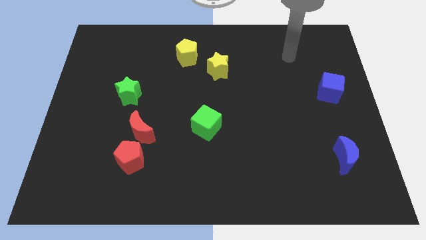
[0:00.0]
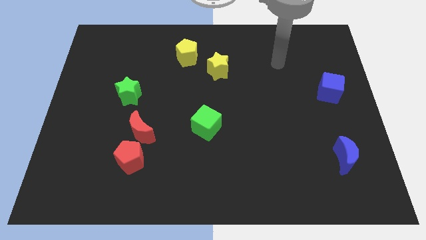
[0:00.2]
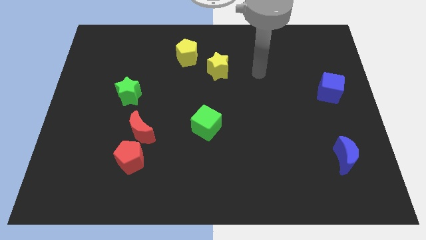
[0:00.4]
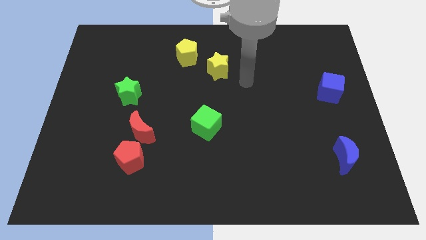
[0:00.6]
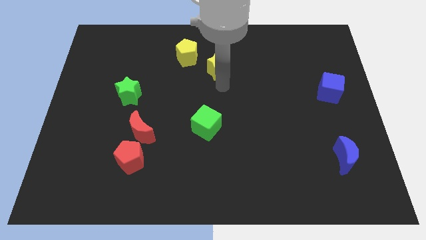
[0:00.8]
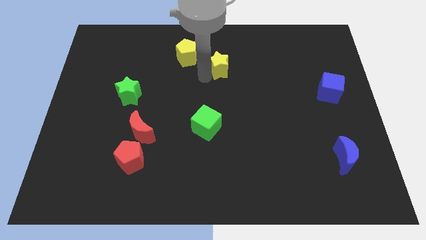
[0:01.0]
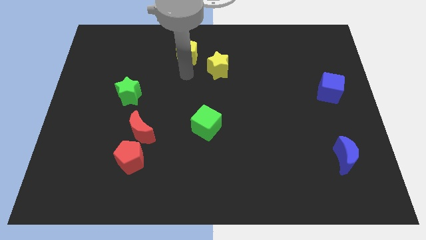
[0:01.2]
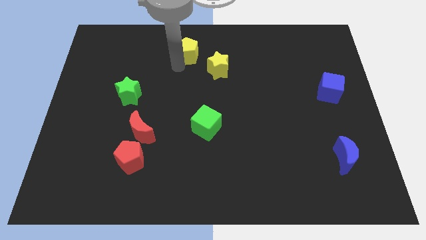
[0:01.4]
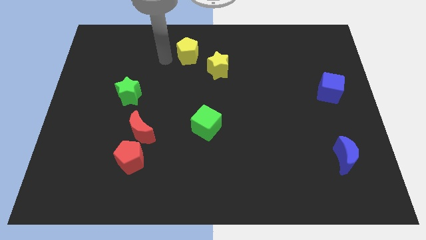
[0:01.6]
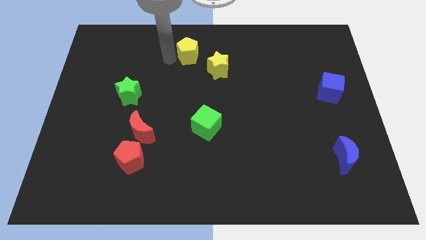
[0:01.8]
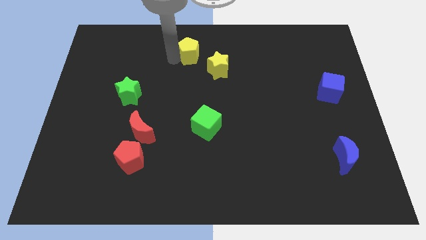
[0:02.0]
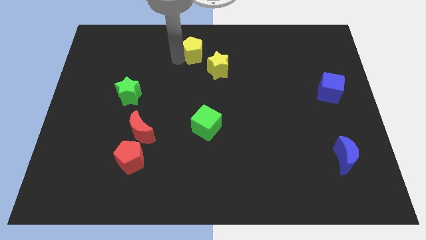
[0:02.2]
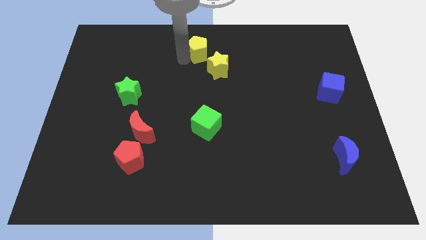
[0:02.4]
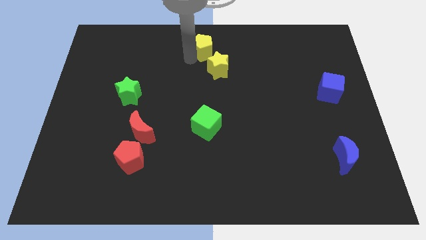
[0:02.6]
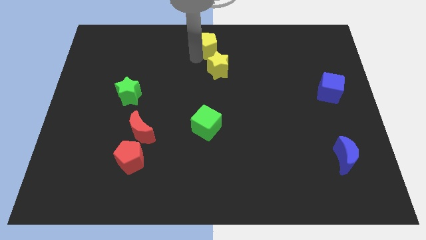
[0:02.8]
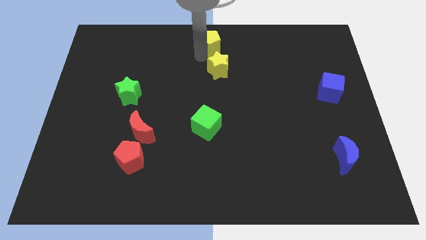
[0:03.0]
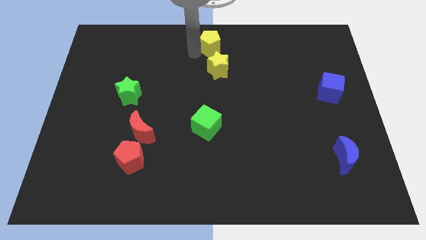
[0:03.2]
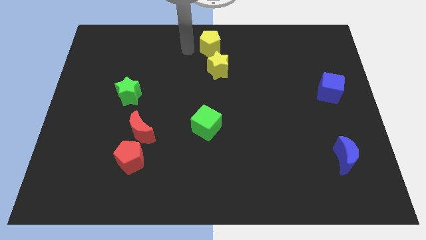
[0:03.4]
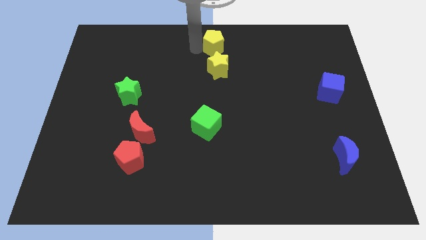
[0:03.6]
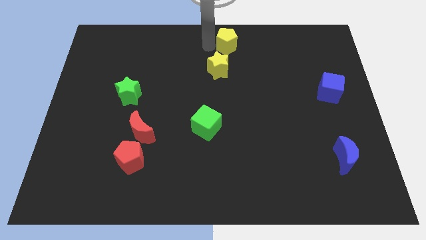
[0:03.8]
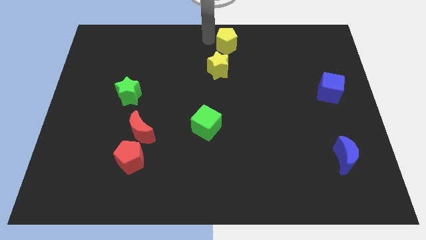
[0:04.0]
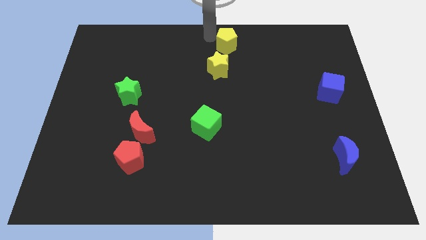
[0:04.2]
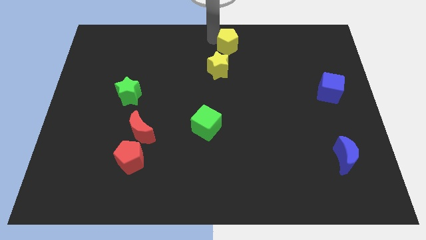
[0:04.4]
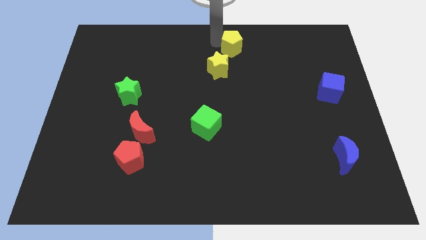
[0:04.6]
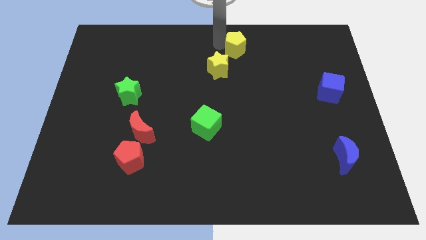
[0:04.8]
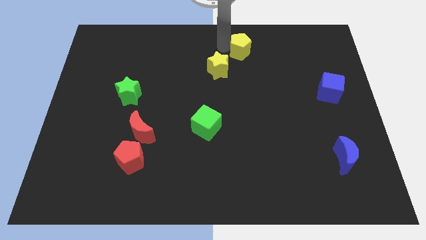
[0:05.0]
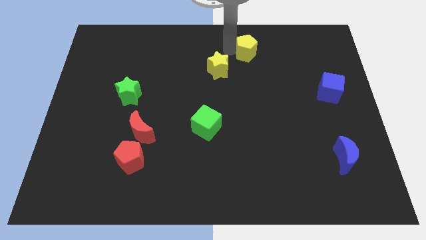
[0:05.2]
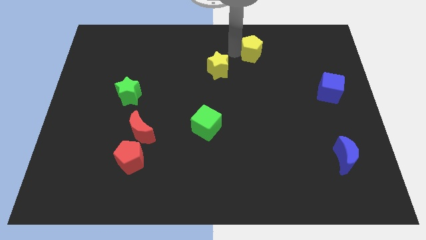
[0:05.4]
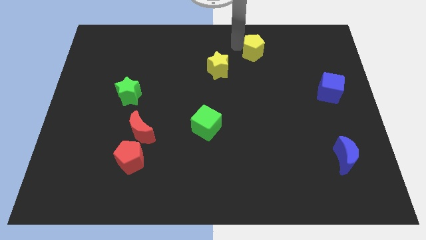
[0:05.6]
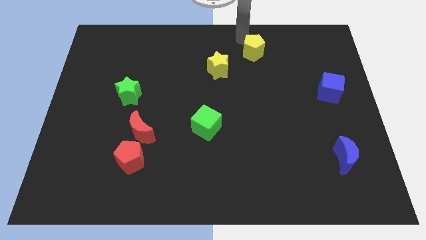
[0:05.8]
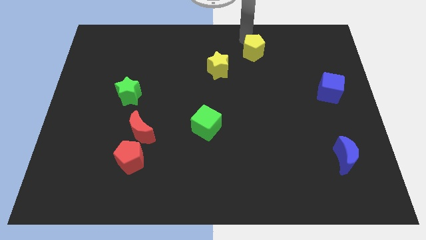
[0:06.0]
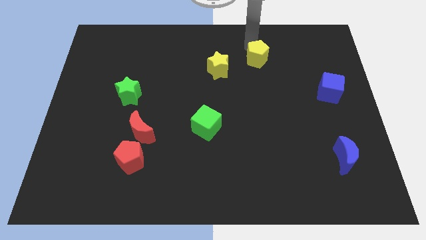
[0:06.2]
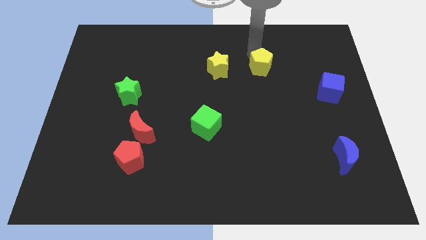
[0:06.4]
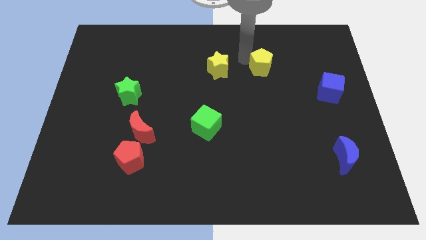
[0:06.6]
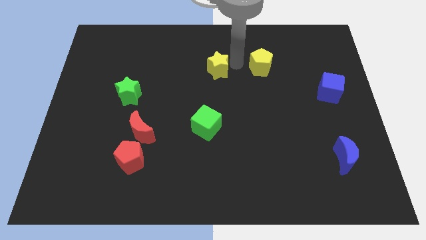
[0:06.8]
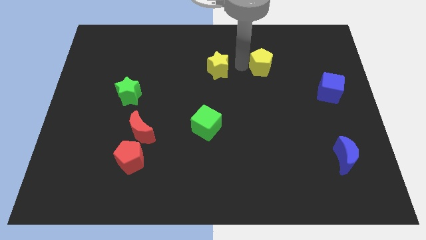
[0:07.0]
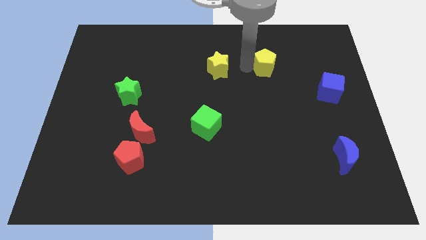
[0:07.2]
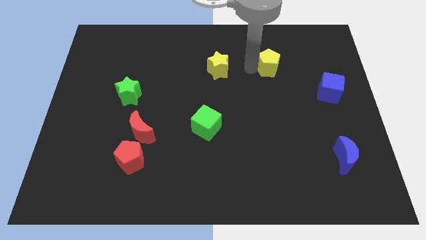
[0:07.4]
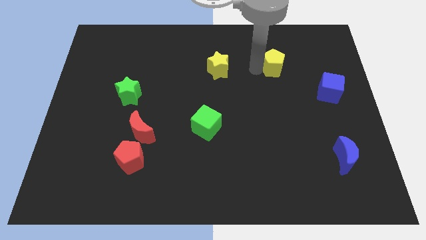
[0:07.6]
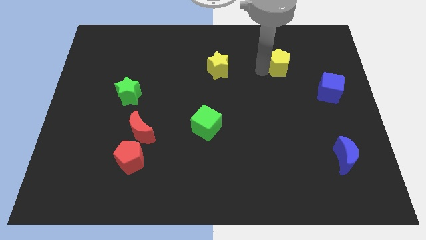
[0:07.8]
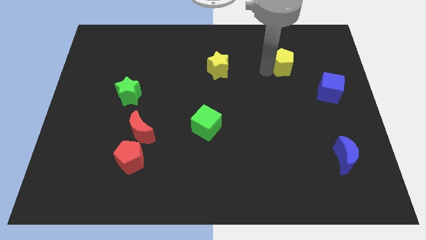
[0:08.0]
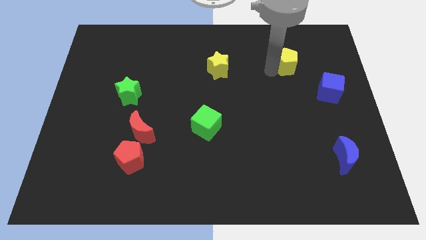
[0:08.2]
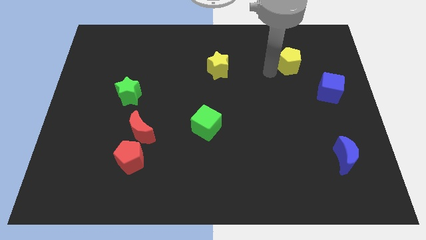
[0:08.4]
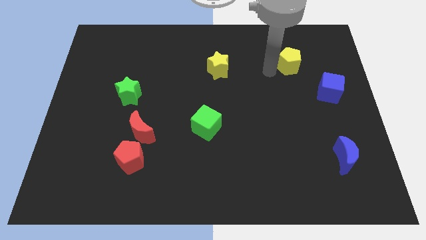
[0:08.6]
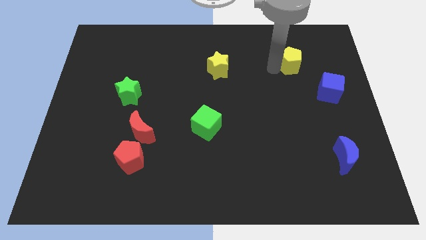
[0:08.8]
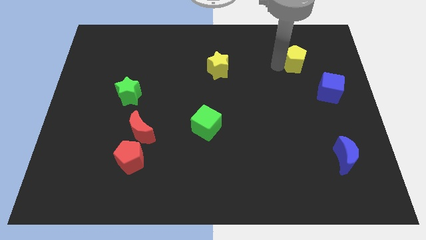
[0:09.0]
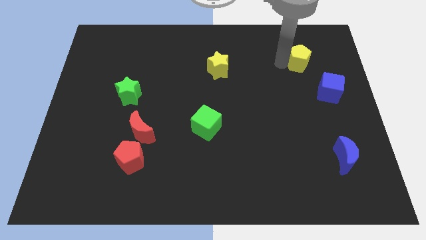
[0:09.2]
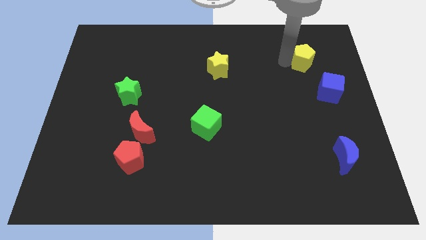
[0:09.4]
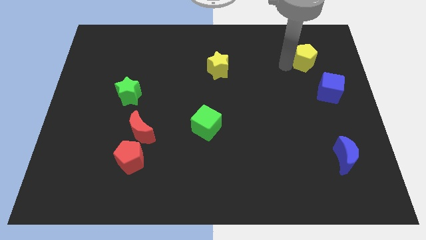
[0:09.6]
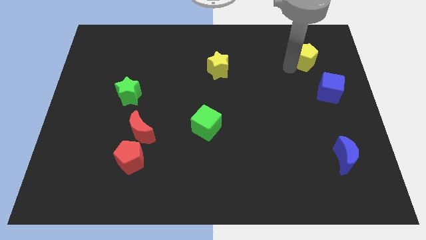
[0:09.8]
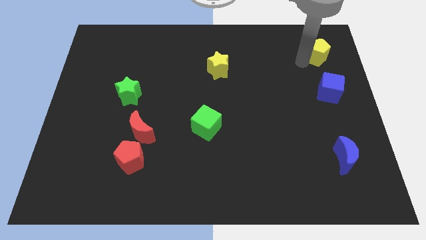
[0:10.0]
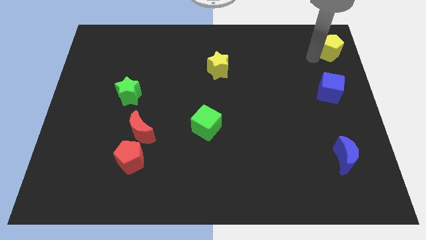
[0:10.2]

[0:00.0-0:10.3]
slide the yellow pentagon to the top right corner

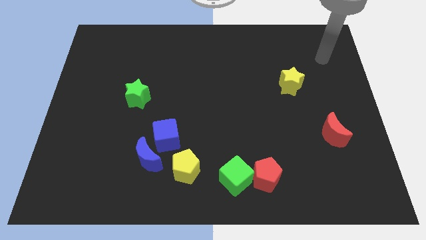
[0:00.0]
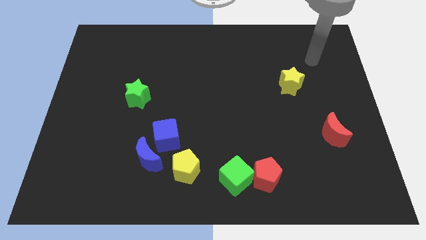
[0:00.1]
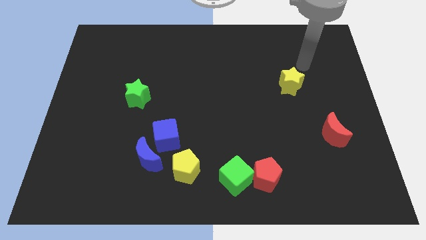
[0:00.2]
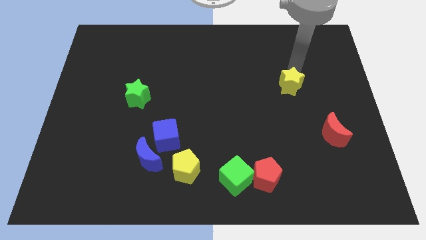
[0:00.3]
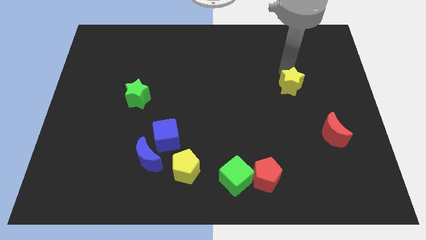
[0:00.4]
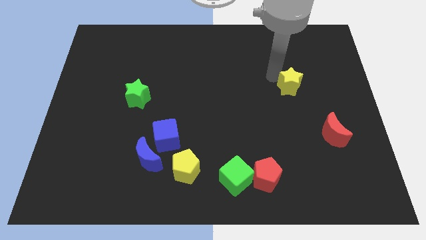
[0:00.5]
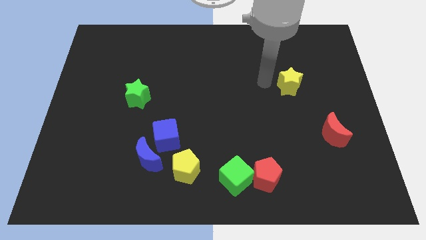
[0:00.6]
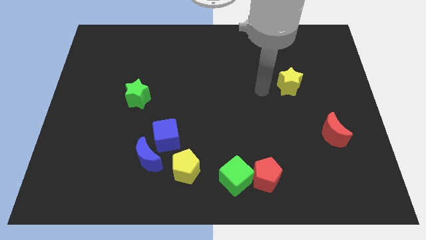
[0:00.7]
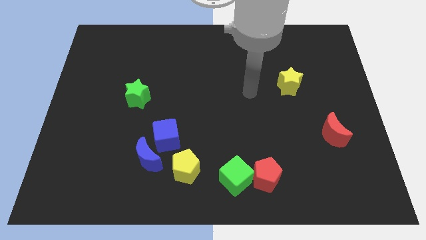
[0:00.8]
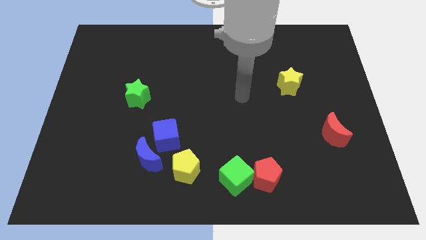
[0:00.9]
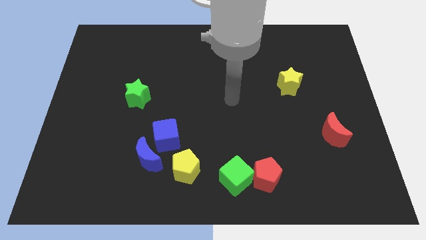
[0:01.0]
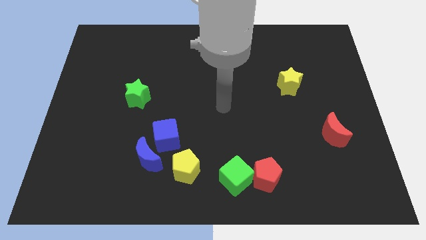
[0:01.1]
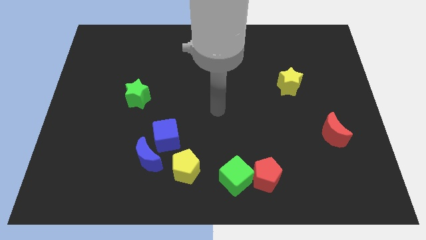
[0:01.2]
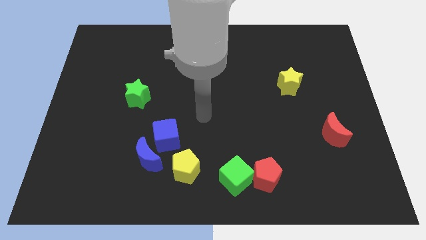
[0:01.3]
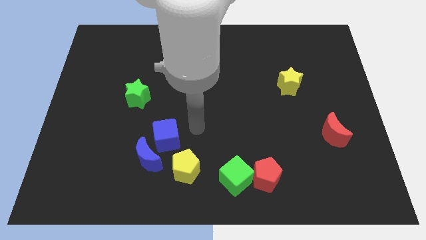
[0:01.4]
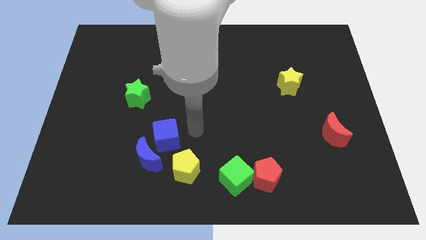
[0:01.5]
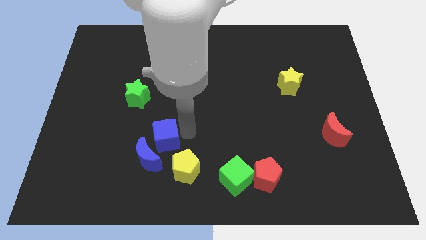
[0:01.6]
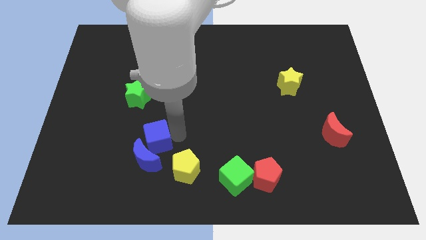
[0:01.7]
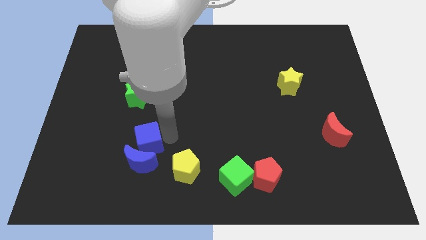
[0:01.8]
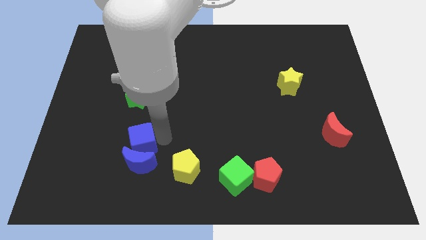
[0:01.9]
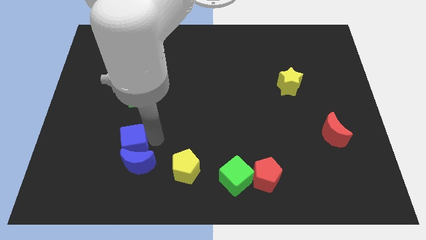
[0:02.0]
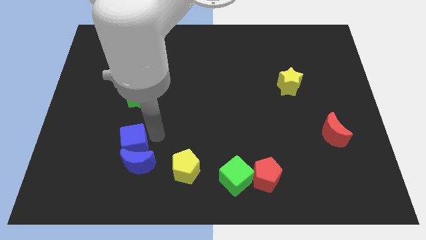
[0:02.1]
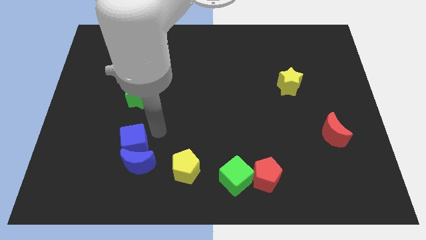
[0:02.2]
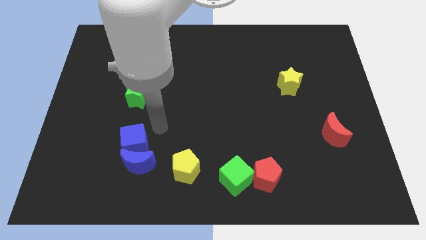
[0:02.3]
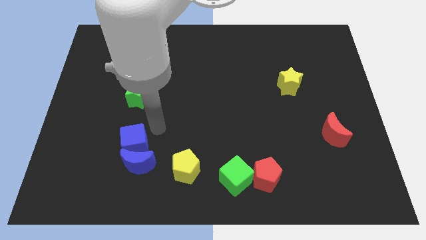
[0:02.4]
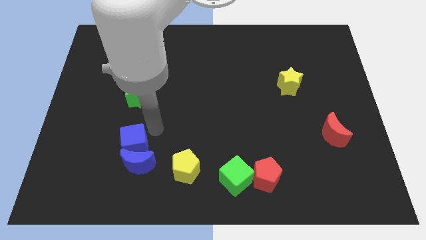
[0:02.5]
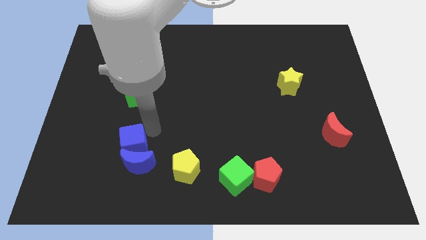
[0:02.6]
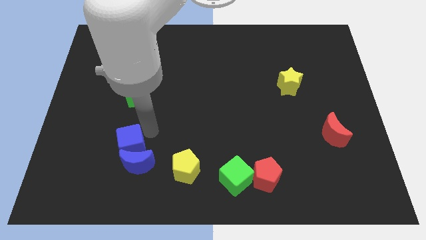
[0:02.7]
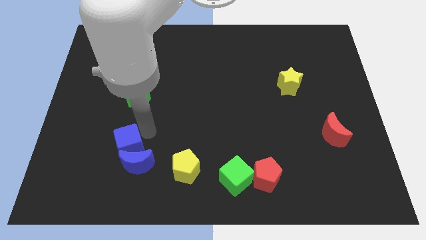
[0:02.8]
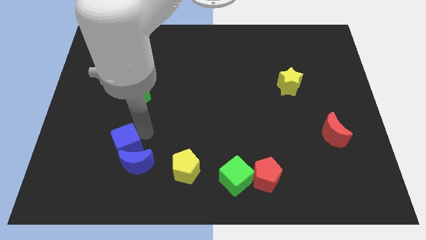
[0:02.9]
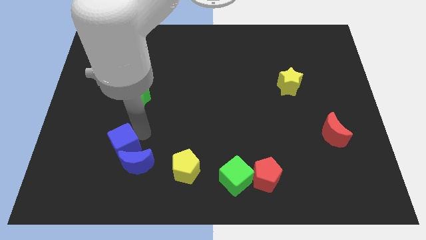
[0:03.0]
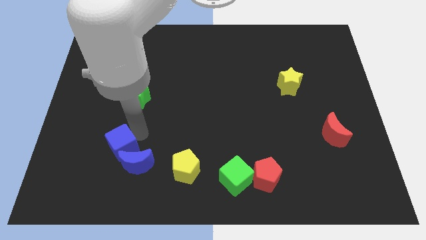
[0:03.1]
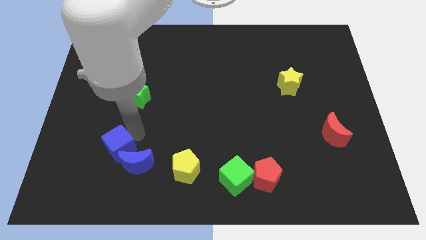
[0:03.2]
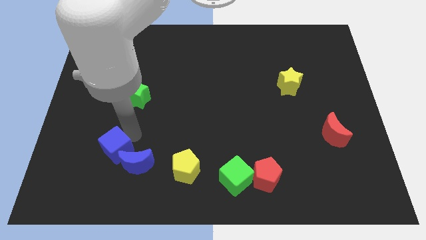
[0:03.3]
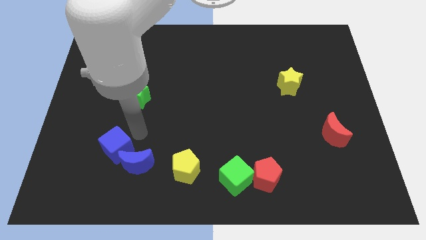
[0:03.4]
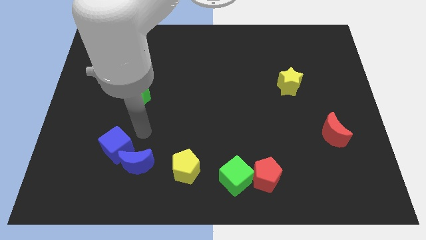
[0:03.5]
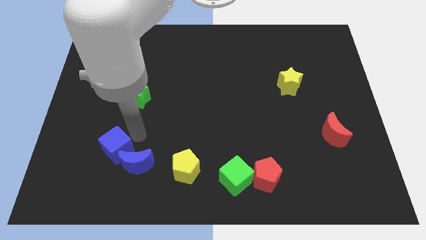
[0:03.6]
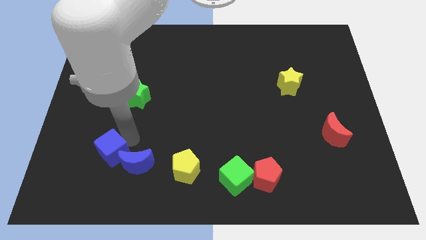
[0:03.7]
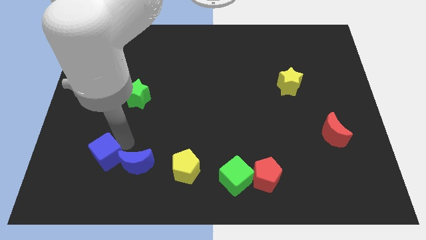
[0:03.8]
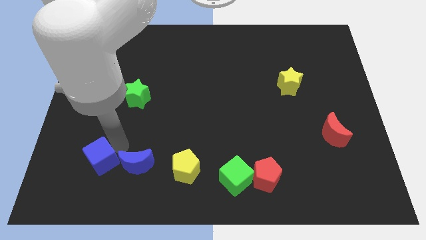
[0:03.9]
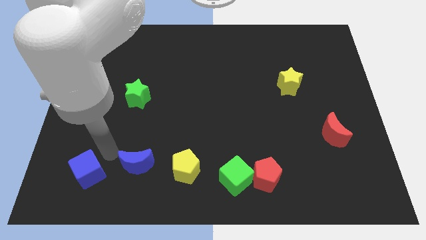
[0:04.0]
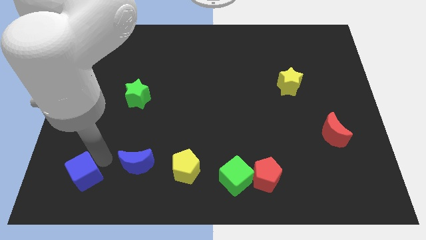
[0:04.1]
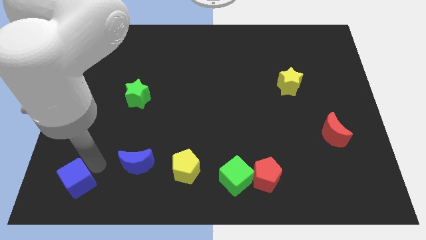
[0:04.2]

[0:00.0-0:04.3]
slide the blue cube to the bottom left of the board
